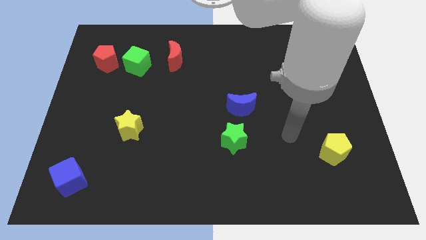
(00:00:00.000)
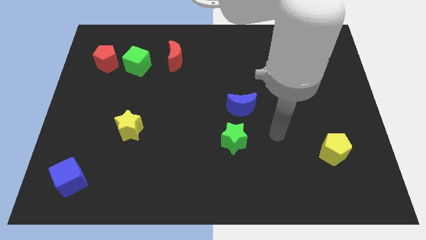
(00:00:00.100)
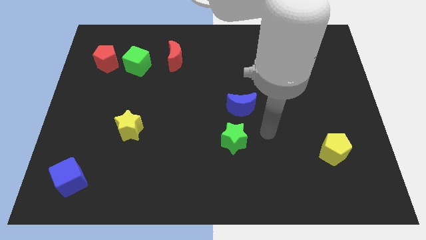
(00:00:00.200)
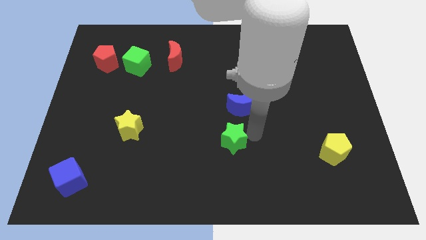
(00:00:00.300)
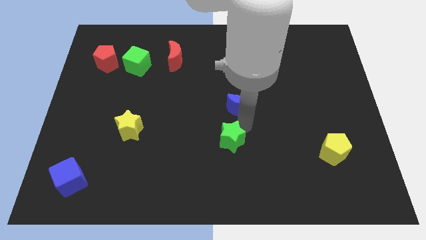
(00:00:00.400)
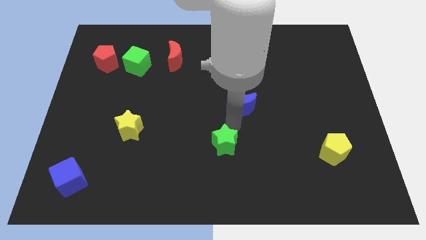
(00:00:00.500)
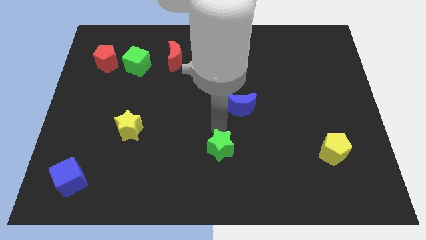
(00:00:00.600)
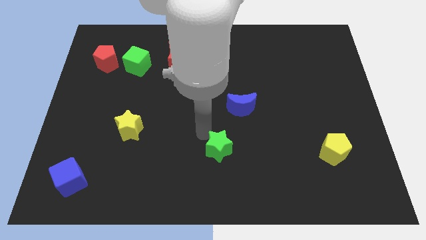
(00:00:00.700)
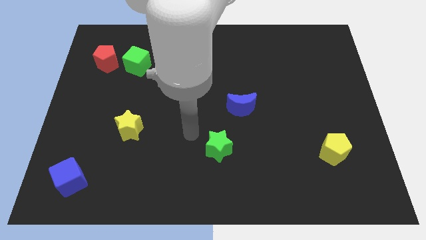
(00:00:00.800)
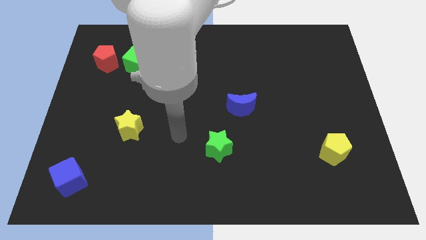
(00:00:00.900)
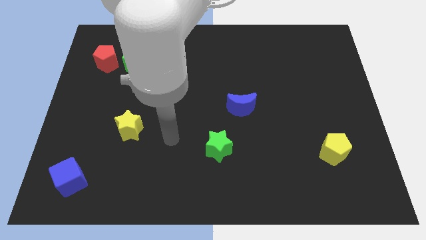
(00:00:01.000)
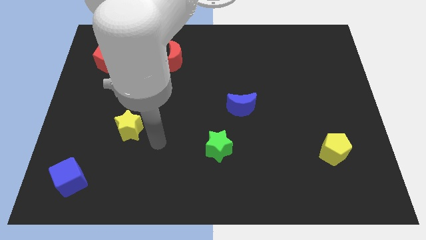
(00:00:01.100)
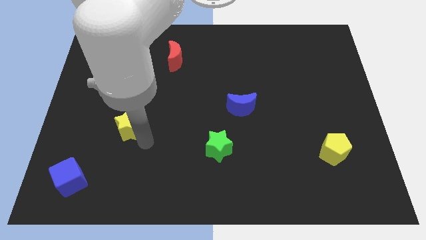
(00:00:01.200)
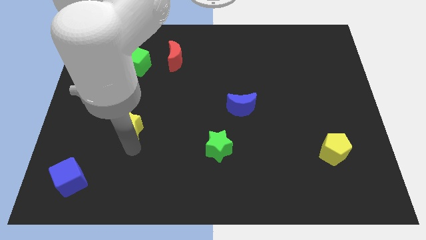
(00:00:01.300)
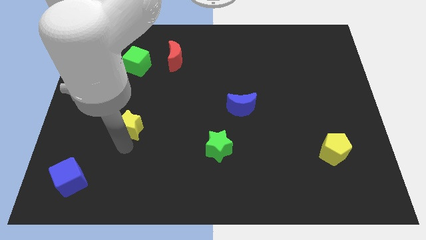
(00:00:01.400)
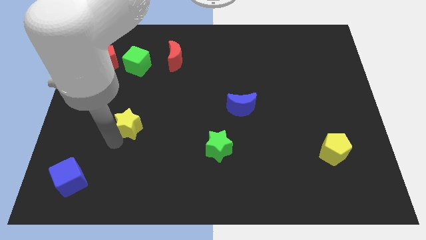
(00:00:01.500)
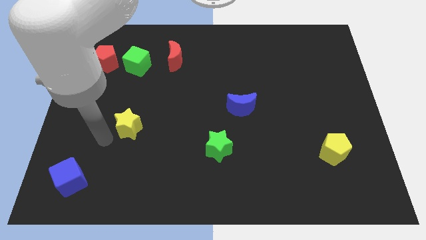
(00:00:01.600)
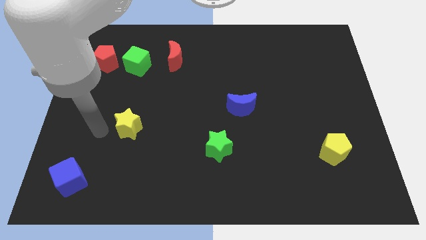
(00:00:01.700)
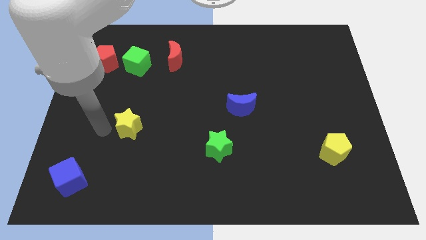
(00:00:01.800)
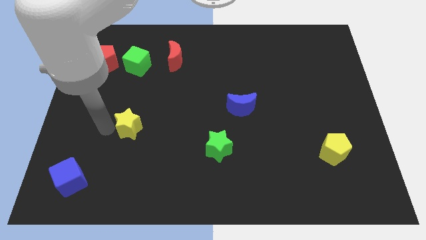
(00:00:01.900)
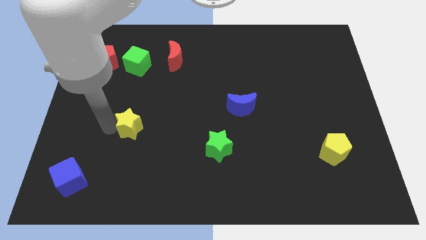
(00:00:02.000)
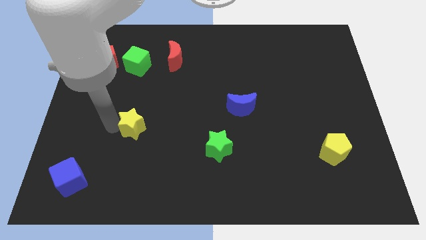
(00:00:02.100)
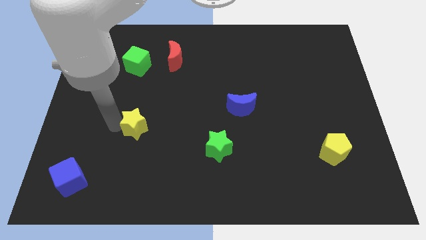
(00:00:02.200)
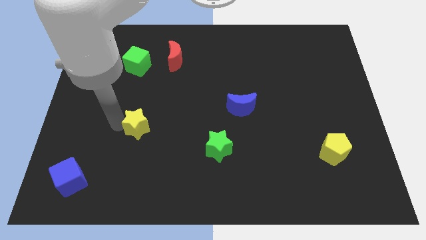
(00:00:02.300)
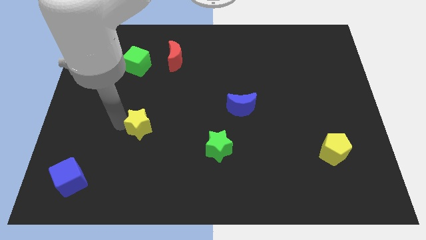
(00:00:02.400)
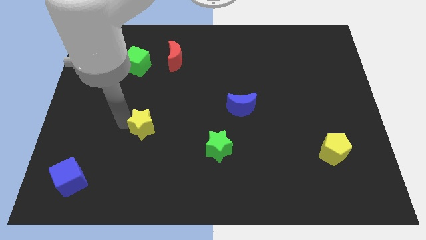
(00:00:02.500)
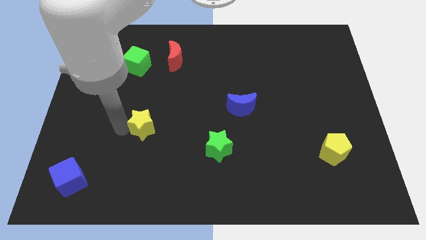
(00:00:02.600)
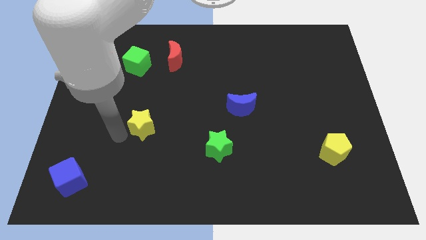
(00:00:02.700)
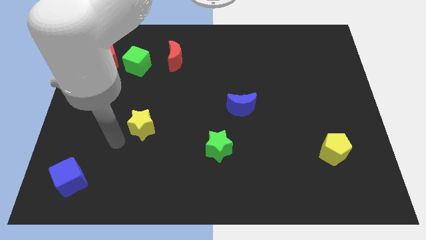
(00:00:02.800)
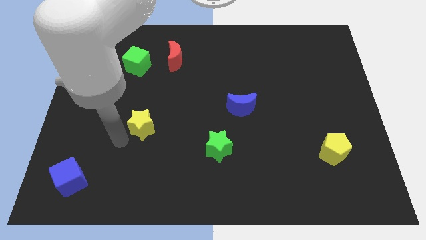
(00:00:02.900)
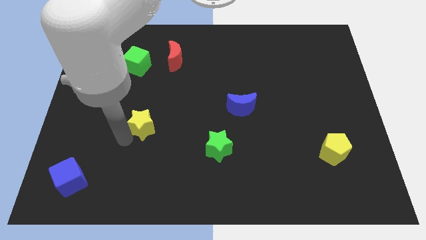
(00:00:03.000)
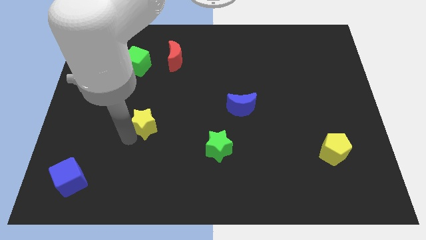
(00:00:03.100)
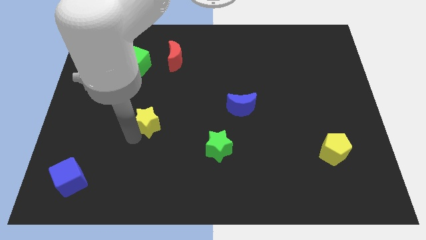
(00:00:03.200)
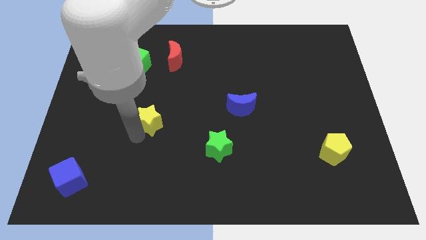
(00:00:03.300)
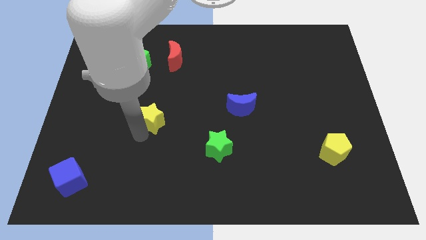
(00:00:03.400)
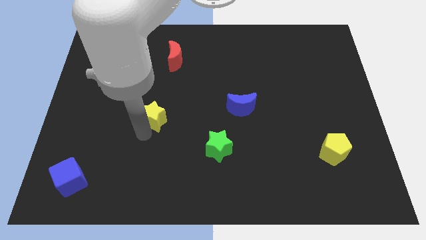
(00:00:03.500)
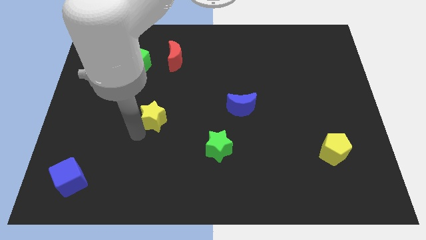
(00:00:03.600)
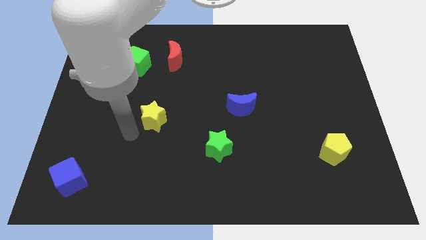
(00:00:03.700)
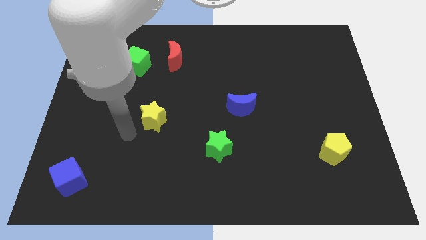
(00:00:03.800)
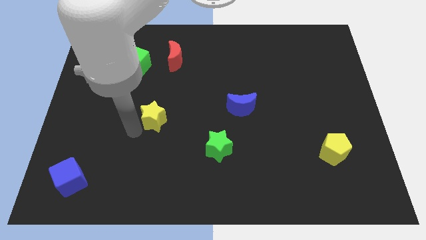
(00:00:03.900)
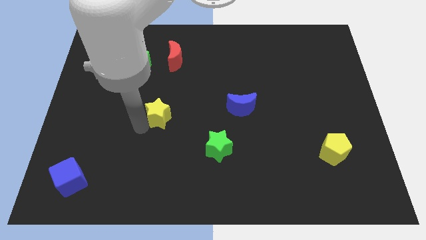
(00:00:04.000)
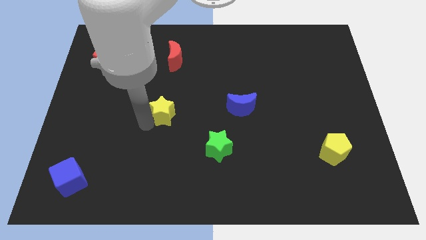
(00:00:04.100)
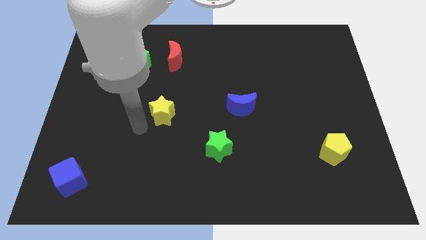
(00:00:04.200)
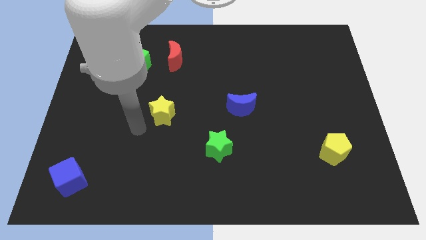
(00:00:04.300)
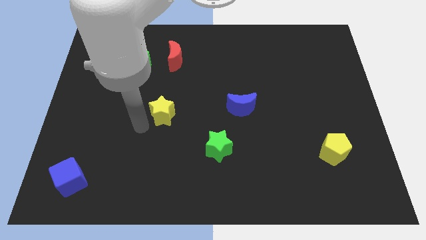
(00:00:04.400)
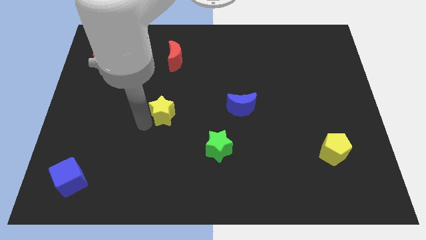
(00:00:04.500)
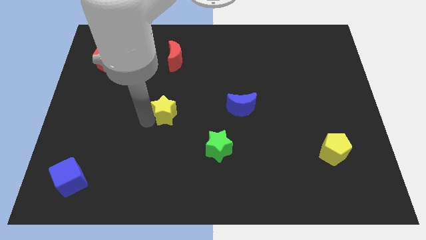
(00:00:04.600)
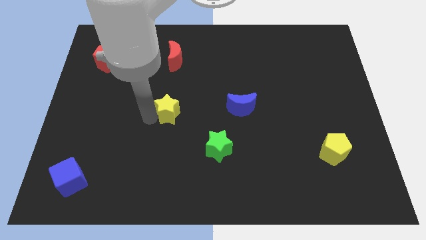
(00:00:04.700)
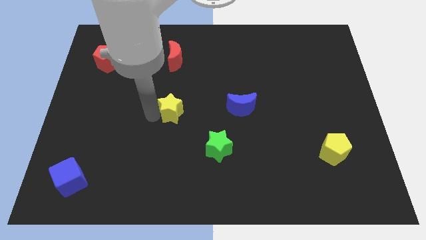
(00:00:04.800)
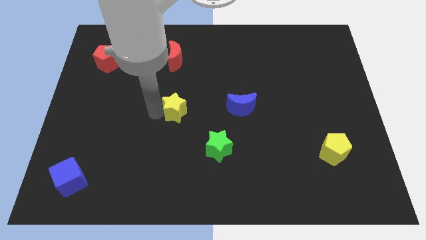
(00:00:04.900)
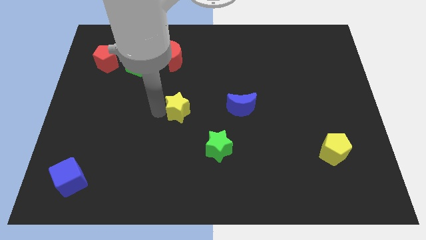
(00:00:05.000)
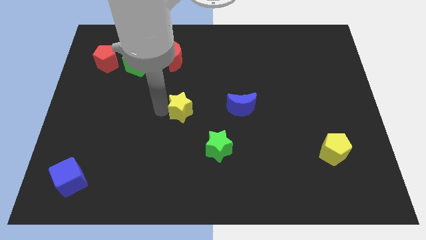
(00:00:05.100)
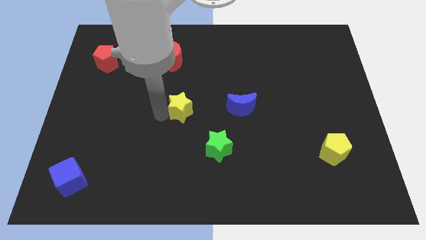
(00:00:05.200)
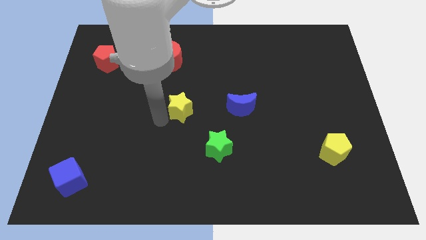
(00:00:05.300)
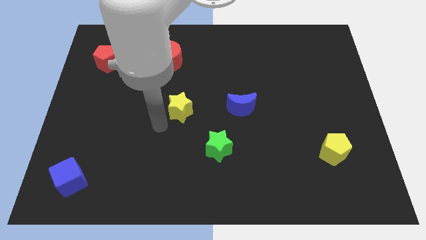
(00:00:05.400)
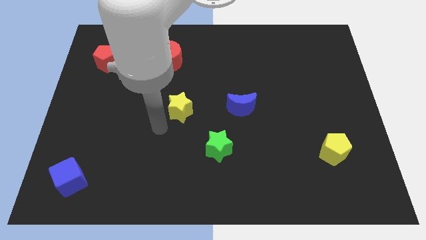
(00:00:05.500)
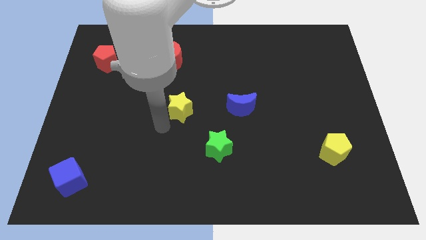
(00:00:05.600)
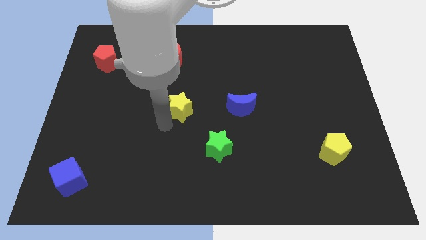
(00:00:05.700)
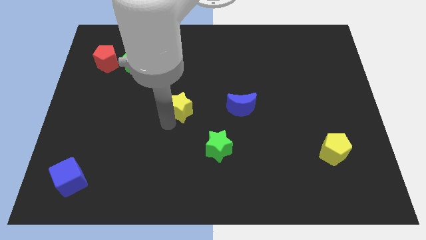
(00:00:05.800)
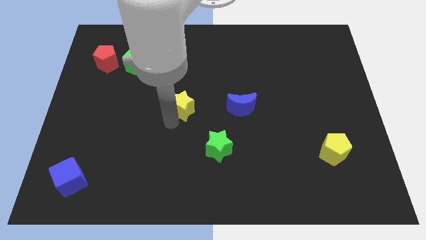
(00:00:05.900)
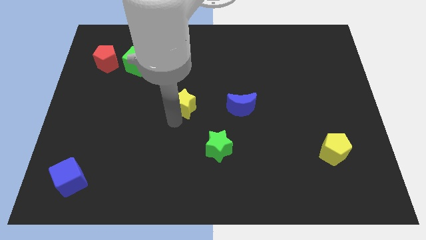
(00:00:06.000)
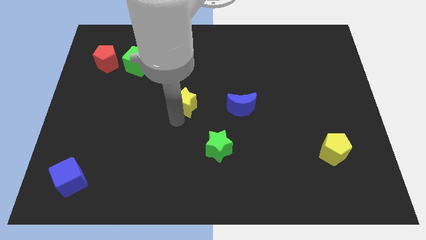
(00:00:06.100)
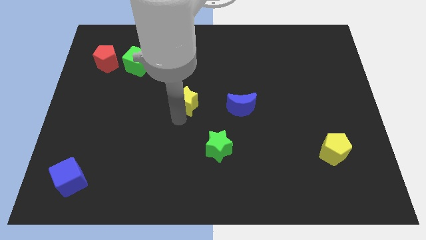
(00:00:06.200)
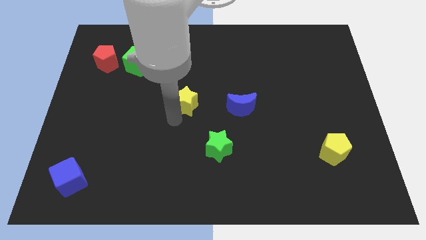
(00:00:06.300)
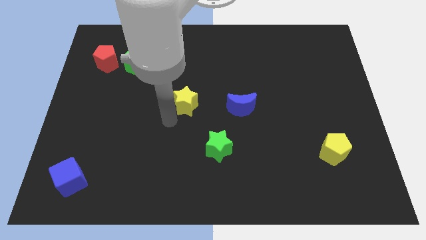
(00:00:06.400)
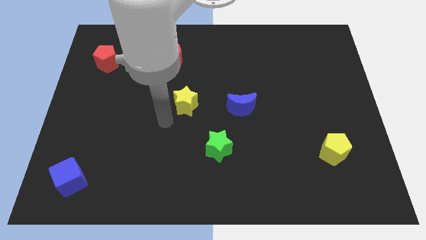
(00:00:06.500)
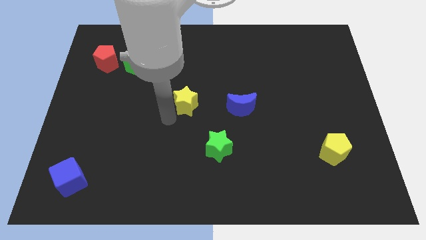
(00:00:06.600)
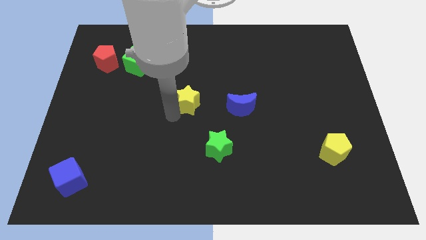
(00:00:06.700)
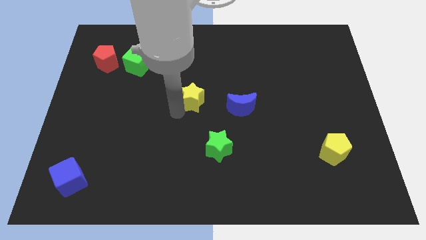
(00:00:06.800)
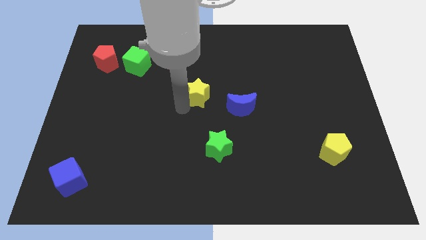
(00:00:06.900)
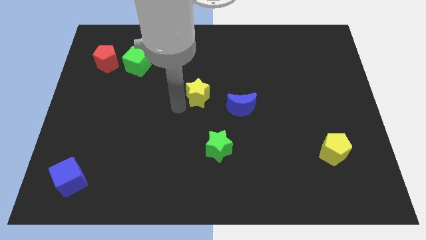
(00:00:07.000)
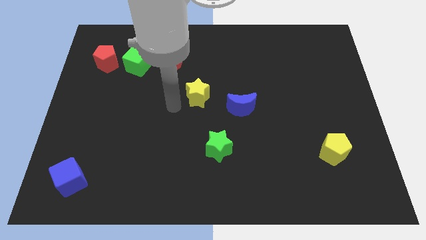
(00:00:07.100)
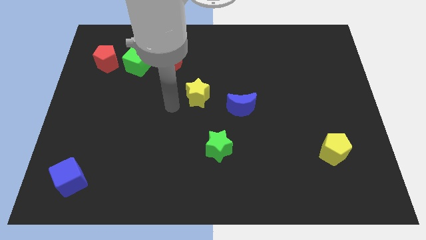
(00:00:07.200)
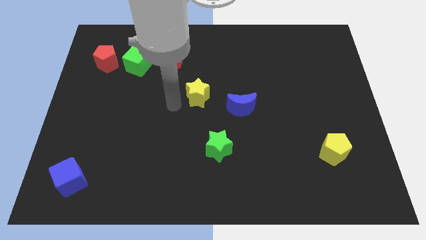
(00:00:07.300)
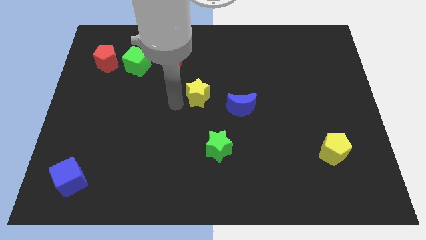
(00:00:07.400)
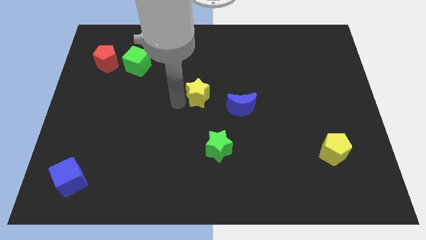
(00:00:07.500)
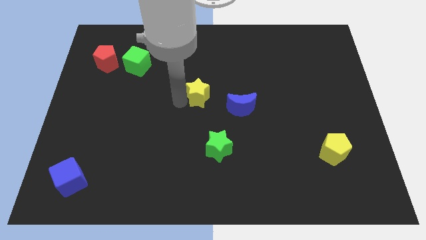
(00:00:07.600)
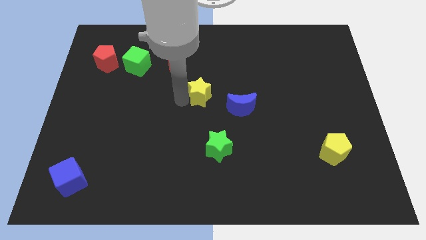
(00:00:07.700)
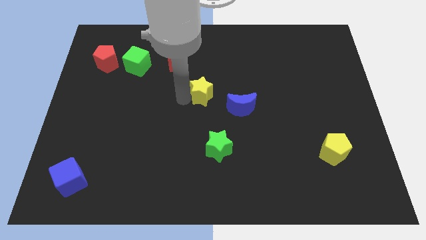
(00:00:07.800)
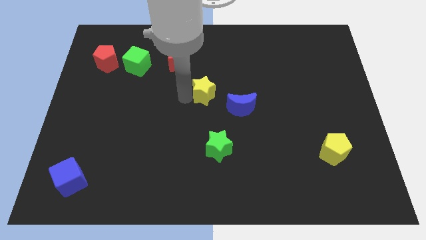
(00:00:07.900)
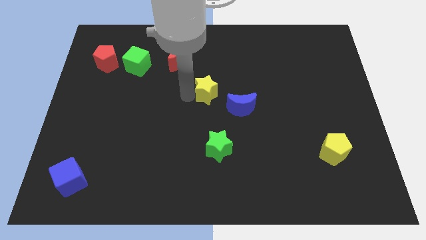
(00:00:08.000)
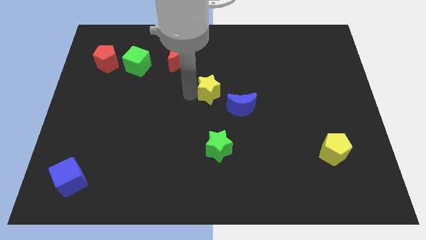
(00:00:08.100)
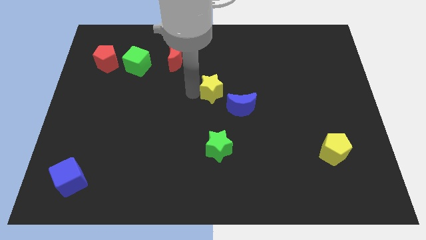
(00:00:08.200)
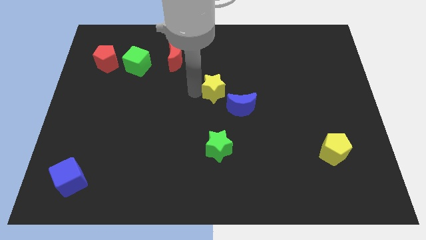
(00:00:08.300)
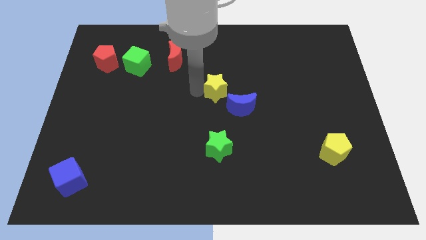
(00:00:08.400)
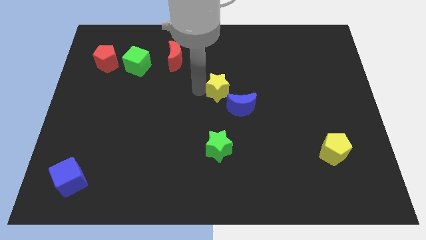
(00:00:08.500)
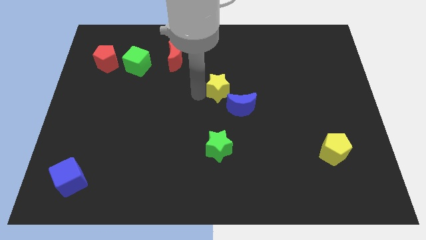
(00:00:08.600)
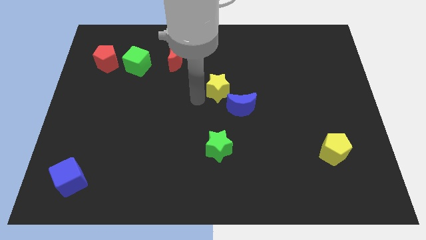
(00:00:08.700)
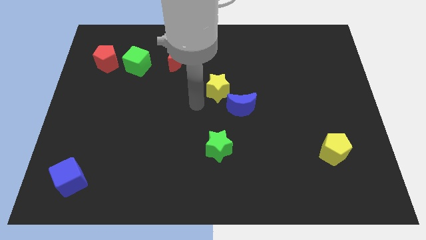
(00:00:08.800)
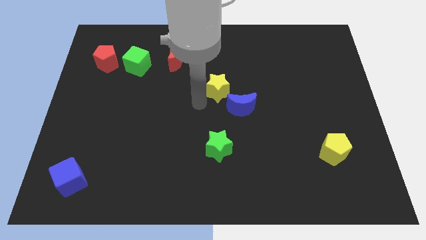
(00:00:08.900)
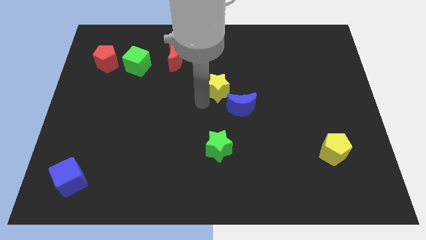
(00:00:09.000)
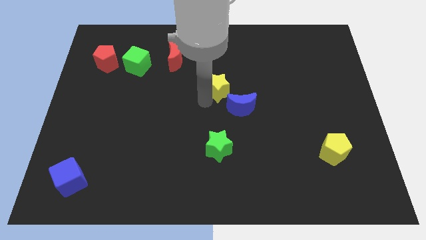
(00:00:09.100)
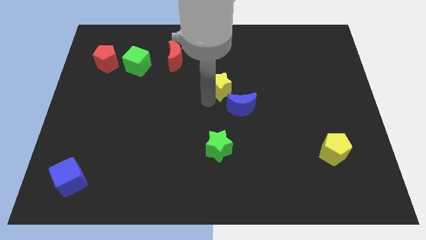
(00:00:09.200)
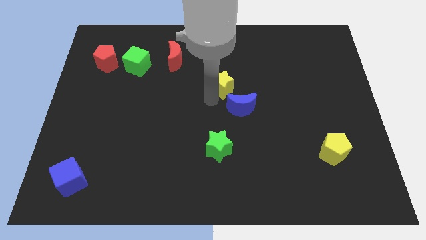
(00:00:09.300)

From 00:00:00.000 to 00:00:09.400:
slide the yellow star to the top of the blue moon
